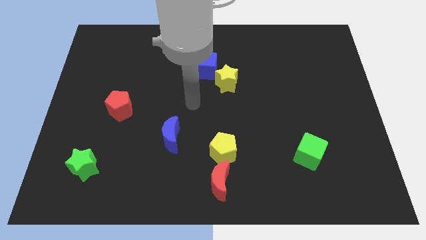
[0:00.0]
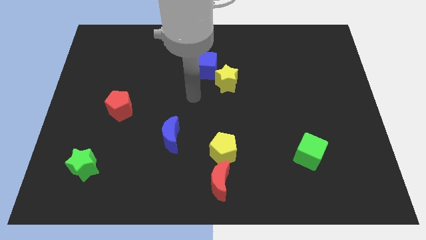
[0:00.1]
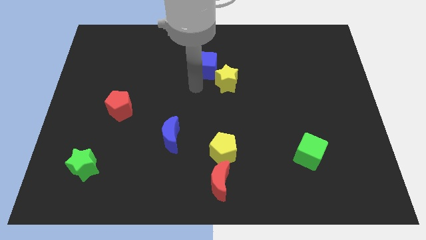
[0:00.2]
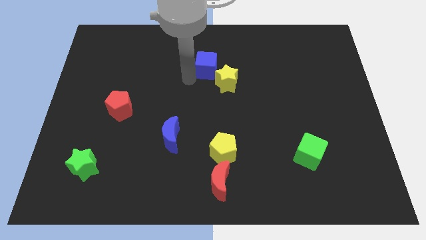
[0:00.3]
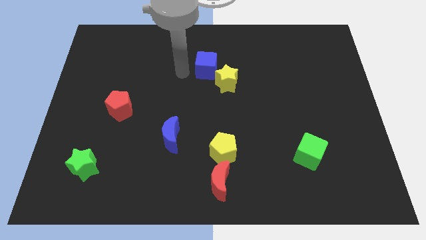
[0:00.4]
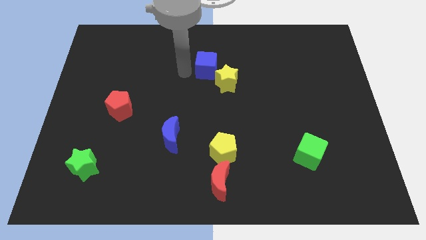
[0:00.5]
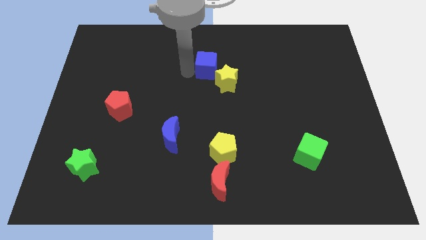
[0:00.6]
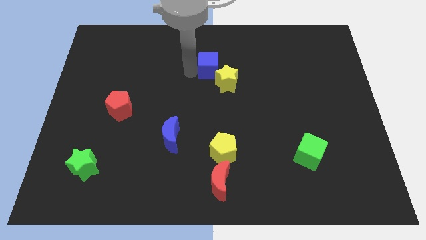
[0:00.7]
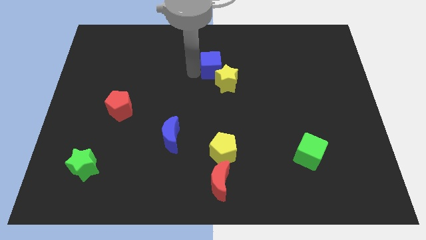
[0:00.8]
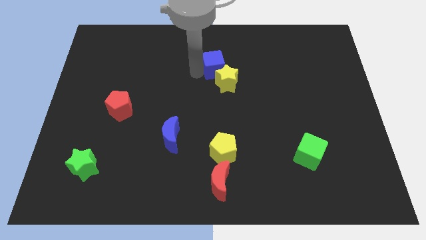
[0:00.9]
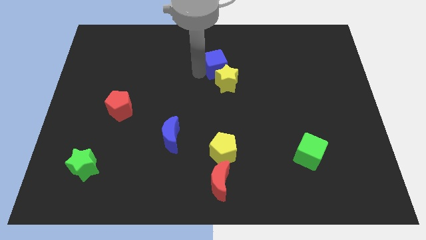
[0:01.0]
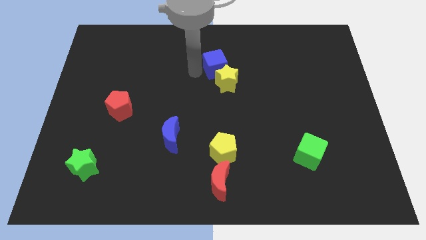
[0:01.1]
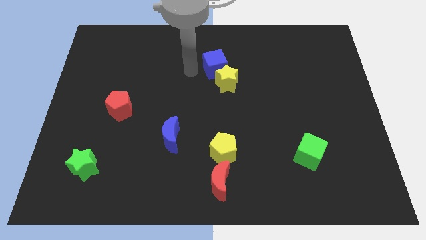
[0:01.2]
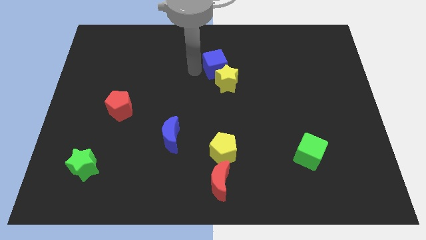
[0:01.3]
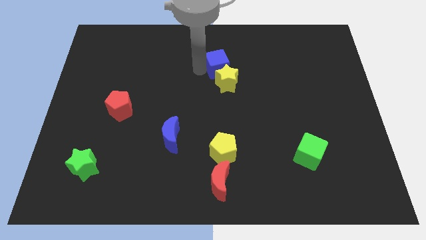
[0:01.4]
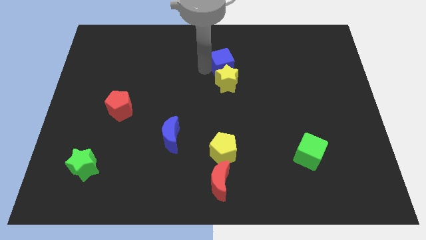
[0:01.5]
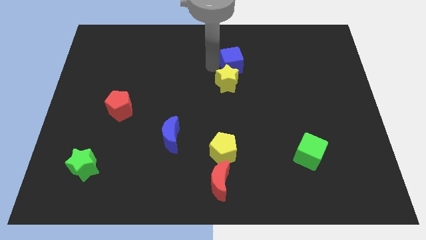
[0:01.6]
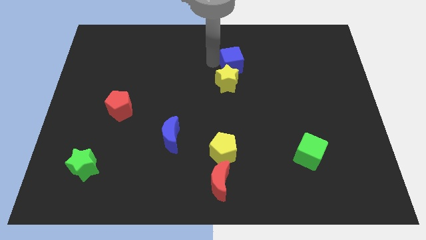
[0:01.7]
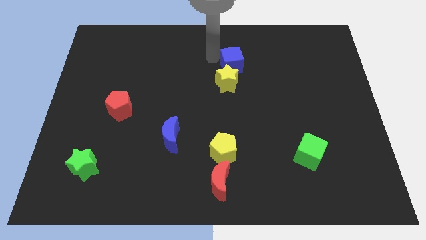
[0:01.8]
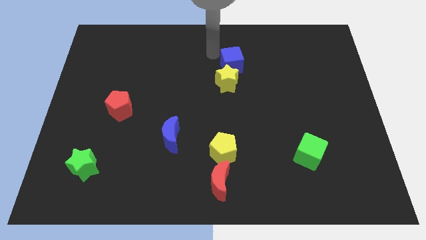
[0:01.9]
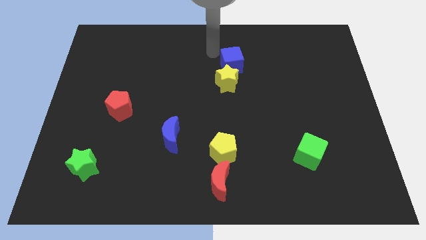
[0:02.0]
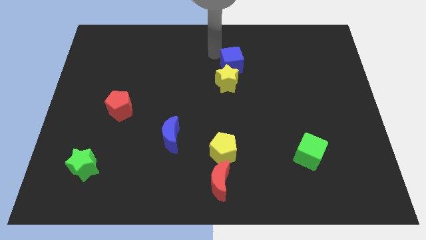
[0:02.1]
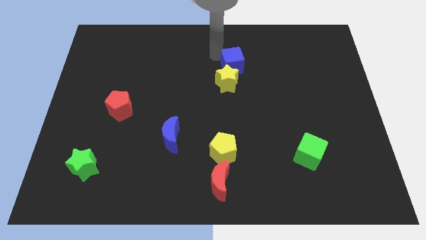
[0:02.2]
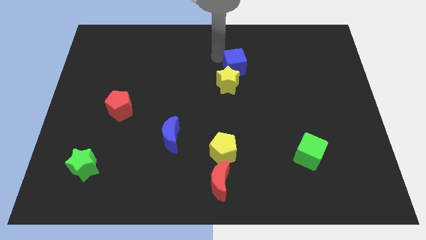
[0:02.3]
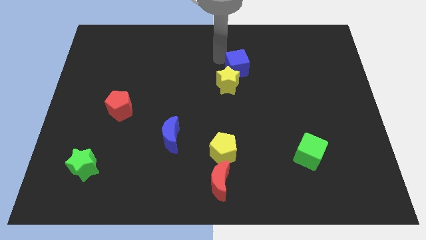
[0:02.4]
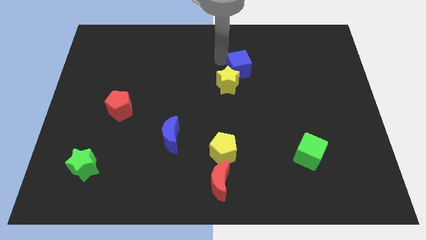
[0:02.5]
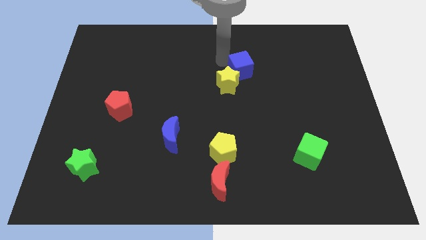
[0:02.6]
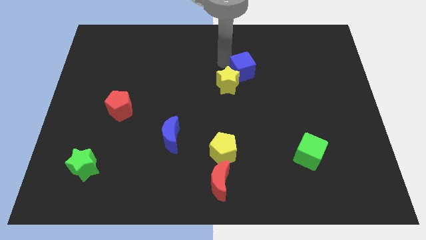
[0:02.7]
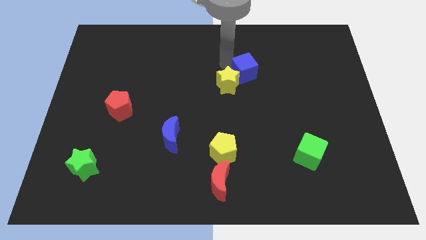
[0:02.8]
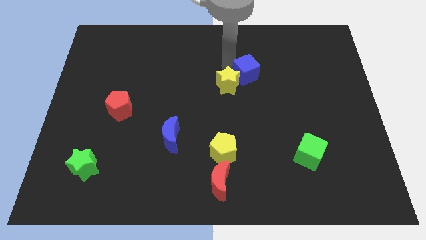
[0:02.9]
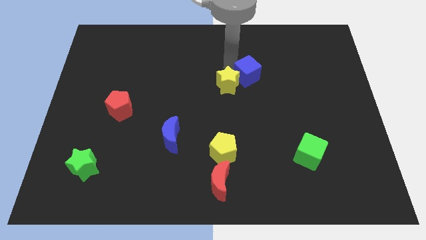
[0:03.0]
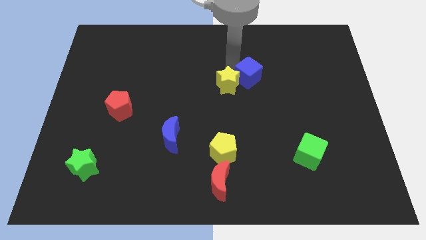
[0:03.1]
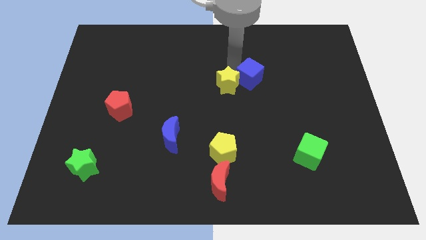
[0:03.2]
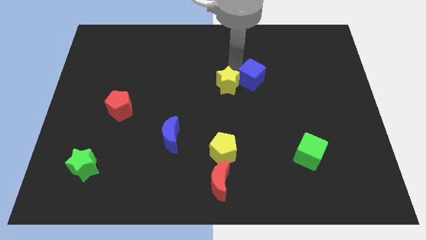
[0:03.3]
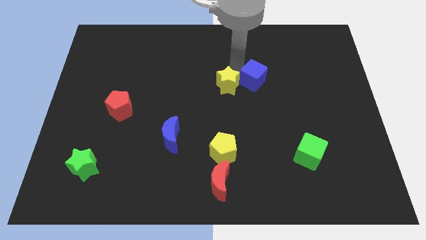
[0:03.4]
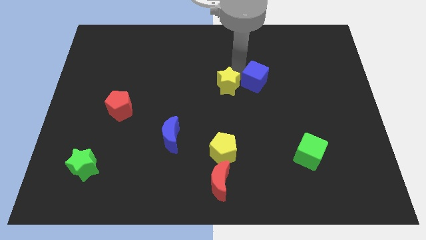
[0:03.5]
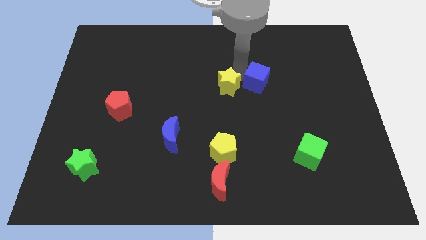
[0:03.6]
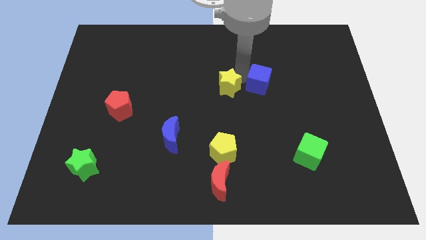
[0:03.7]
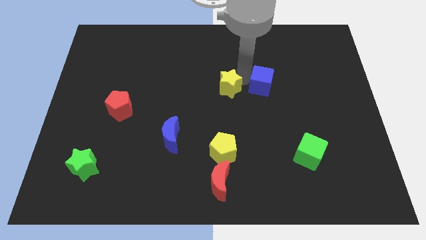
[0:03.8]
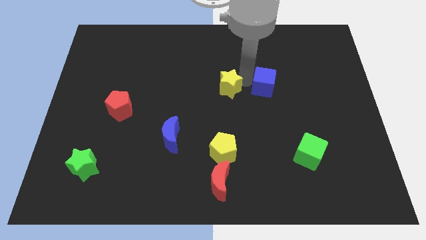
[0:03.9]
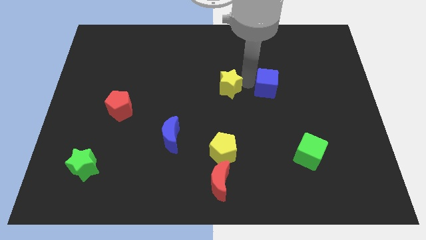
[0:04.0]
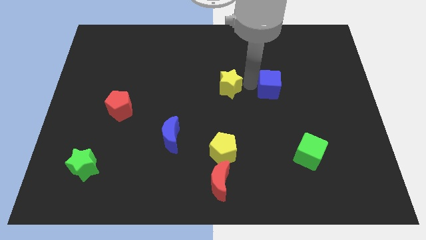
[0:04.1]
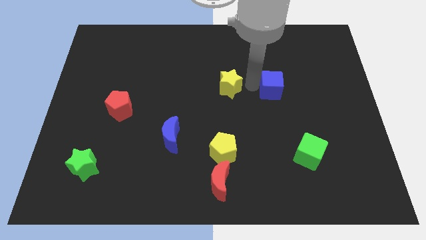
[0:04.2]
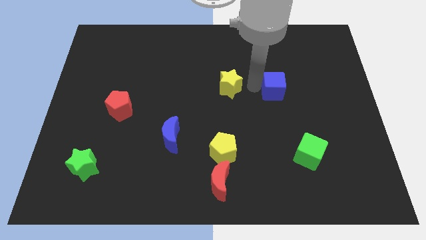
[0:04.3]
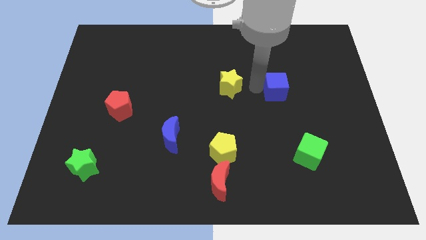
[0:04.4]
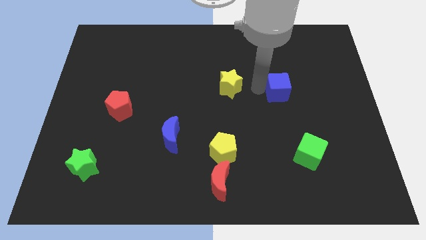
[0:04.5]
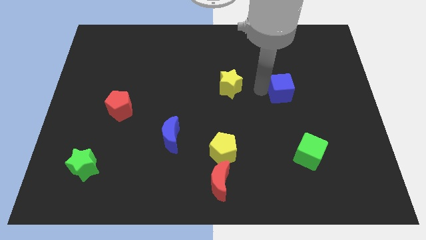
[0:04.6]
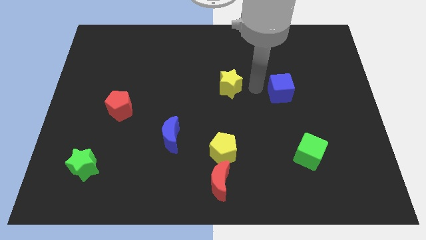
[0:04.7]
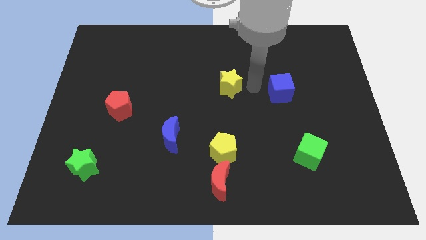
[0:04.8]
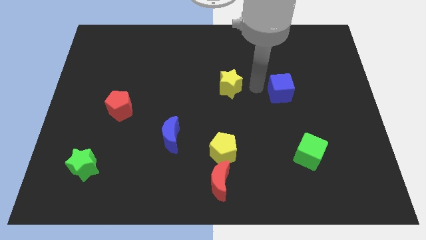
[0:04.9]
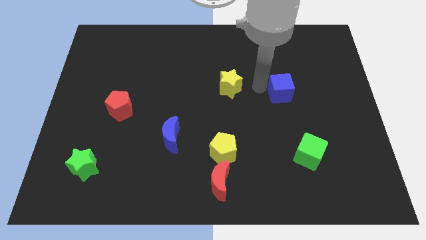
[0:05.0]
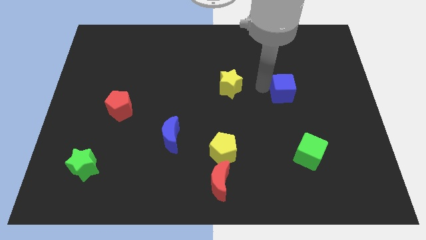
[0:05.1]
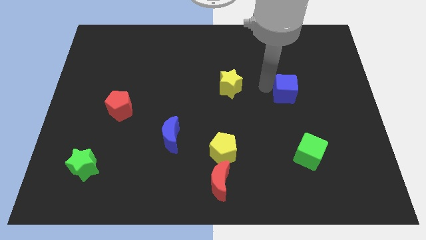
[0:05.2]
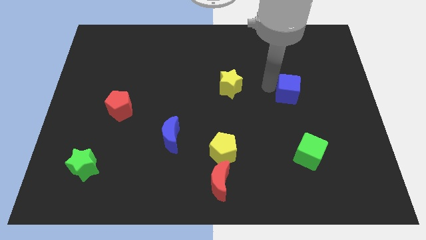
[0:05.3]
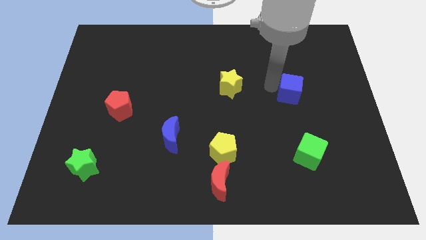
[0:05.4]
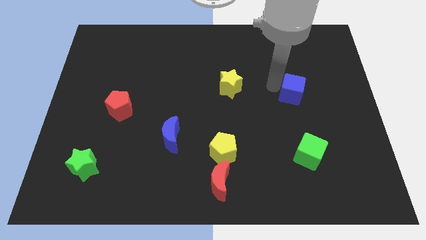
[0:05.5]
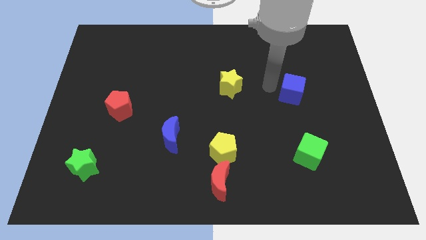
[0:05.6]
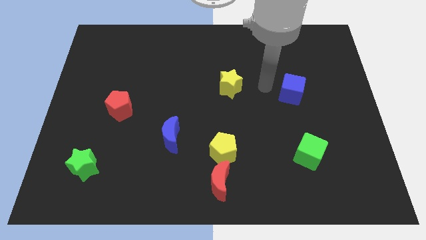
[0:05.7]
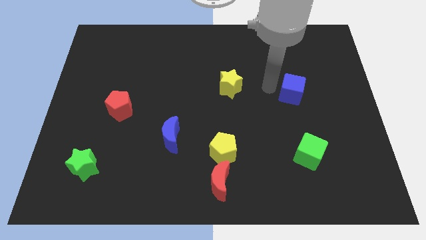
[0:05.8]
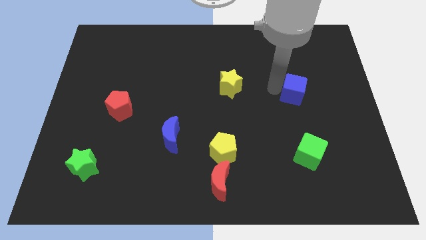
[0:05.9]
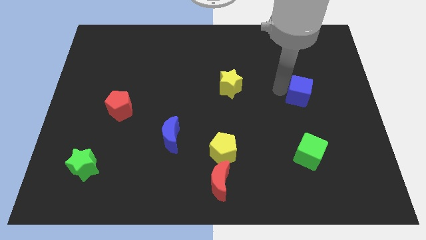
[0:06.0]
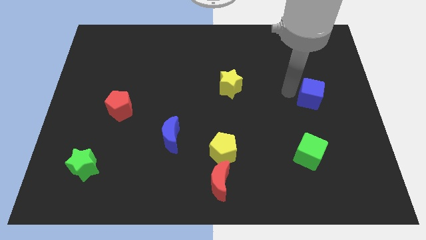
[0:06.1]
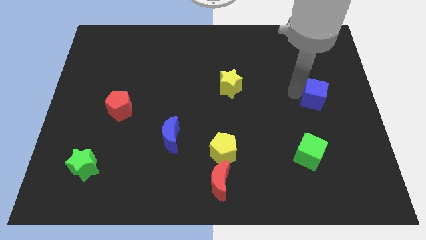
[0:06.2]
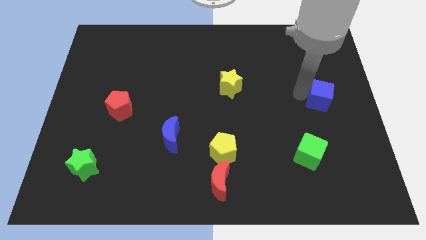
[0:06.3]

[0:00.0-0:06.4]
put the blue cube to the center right
